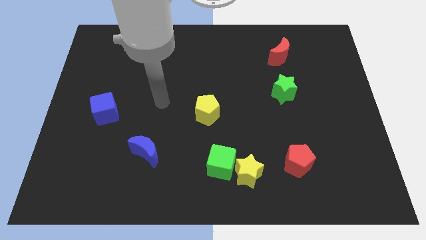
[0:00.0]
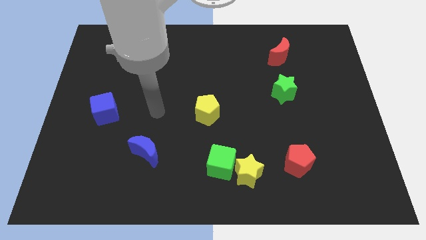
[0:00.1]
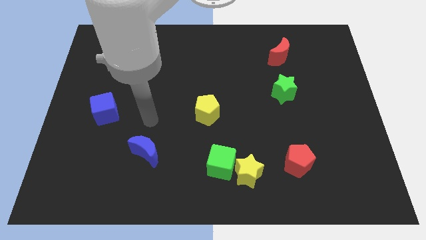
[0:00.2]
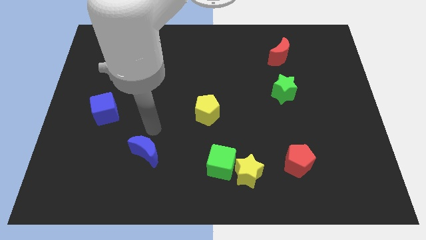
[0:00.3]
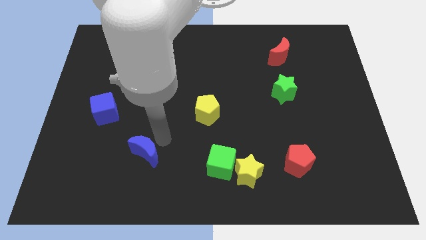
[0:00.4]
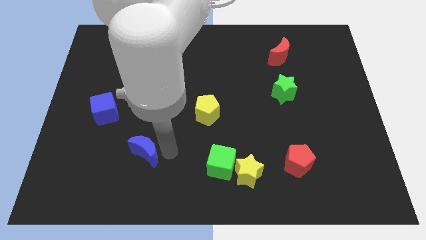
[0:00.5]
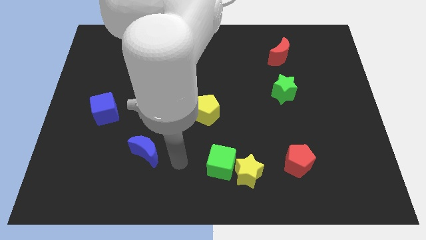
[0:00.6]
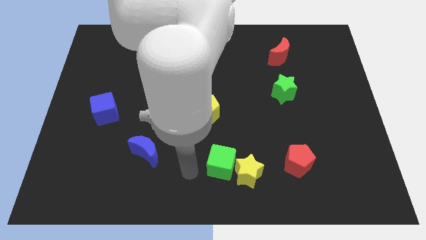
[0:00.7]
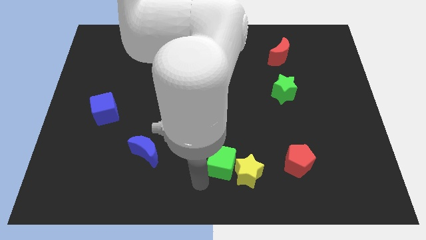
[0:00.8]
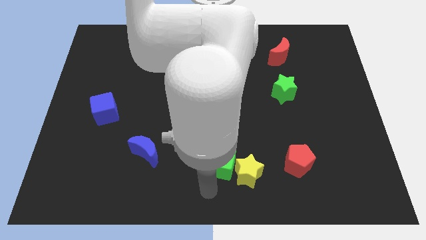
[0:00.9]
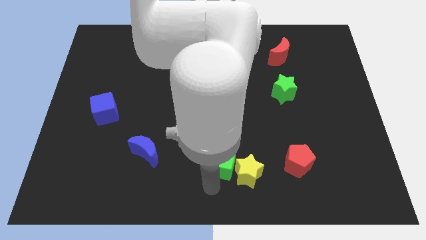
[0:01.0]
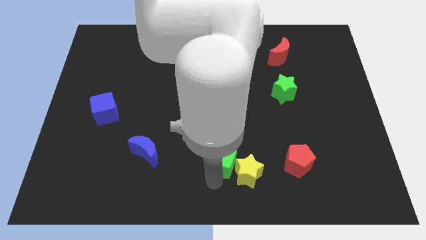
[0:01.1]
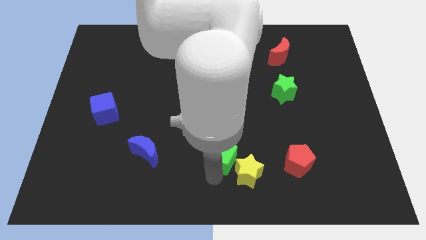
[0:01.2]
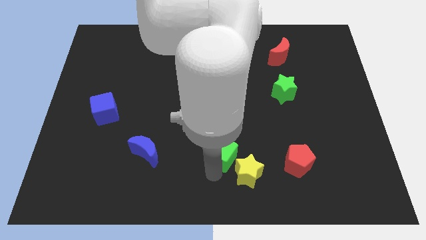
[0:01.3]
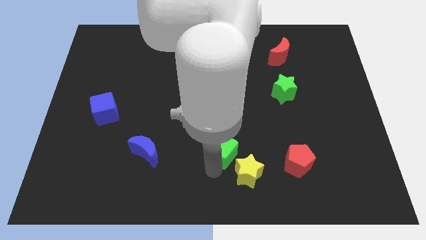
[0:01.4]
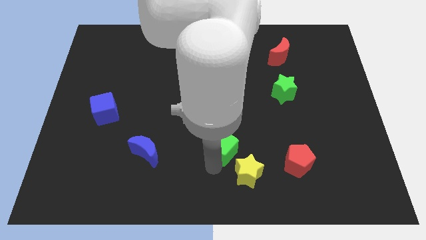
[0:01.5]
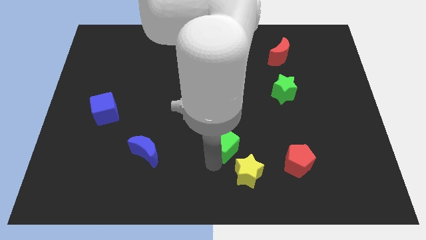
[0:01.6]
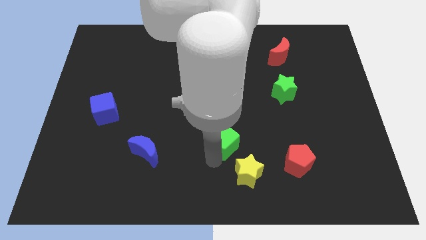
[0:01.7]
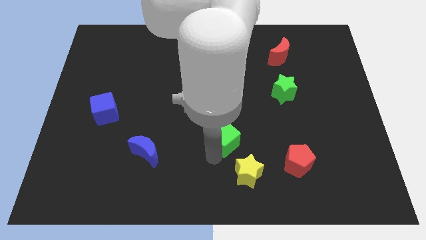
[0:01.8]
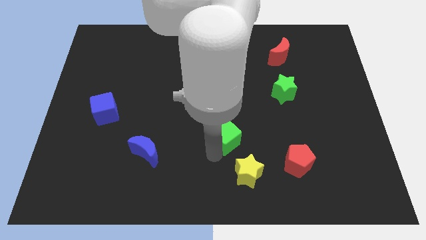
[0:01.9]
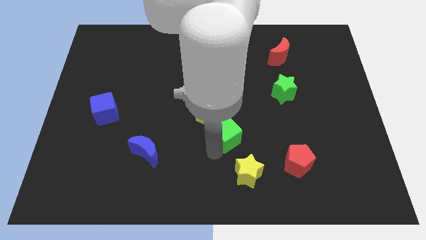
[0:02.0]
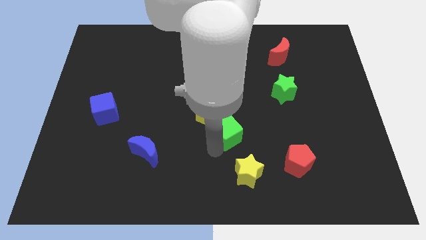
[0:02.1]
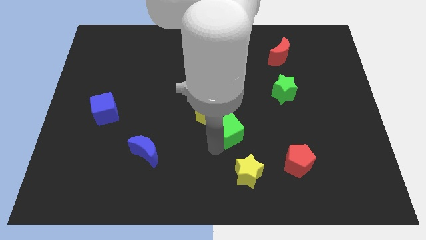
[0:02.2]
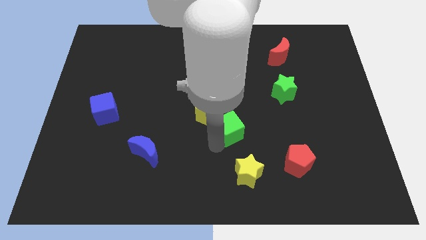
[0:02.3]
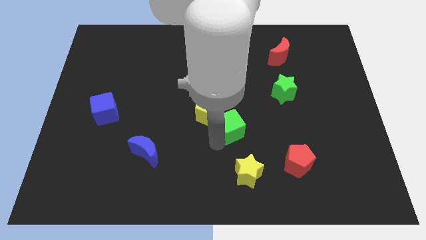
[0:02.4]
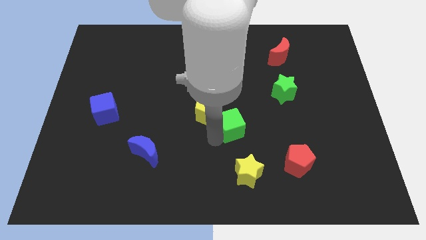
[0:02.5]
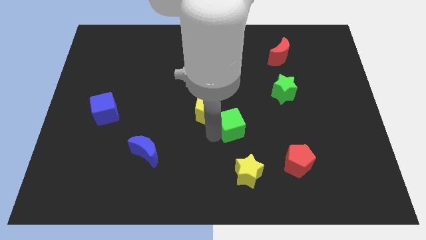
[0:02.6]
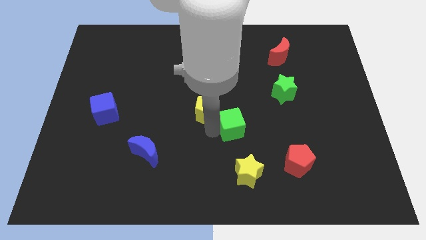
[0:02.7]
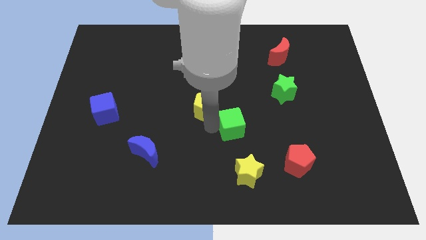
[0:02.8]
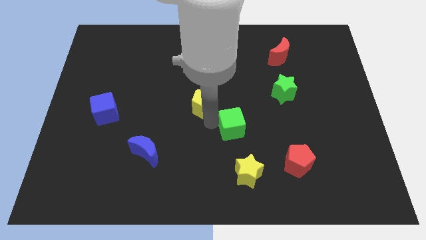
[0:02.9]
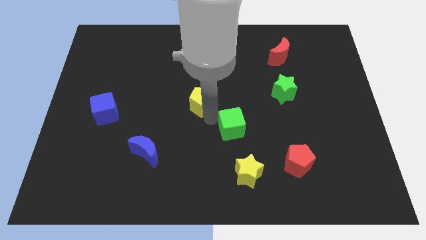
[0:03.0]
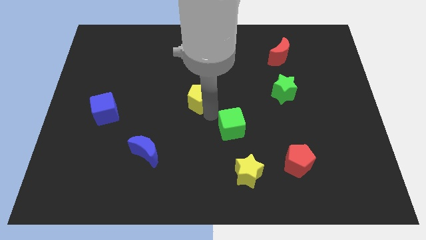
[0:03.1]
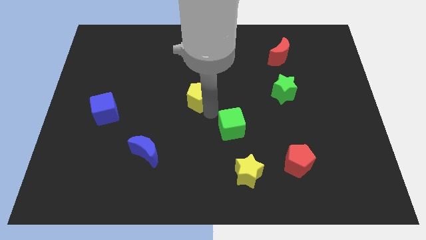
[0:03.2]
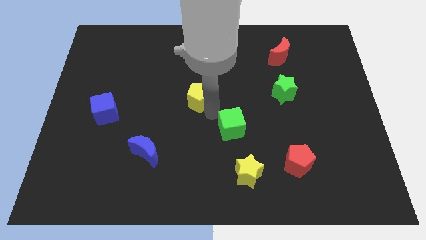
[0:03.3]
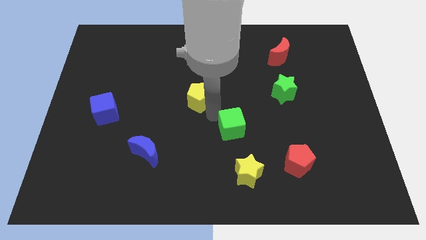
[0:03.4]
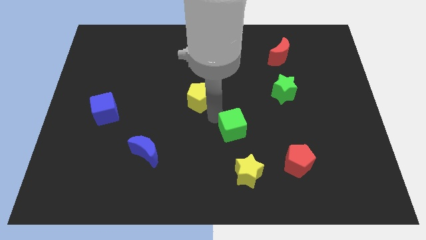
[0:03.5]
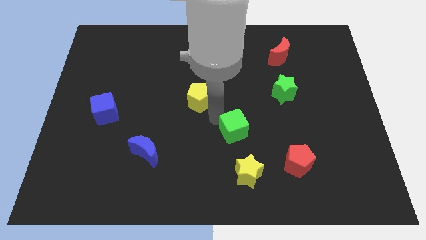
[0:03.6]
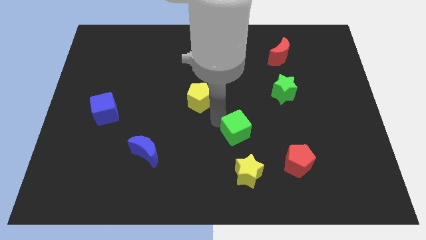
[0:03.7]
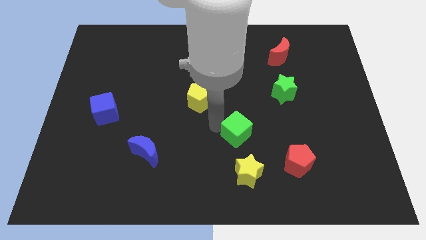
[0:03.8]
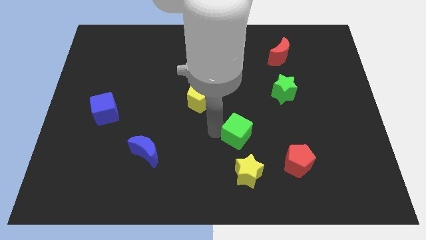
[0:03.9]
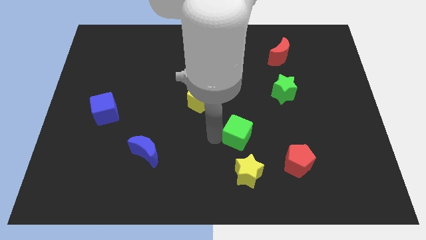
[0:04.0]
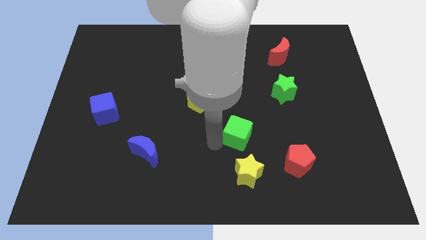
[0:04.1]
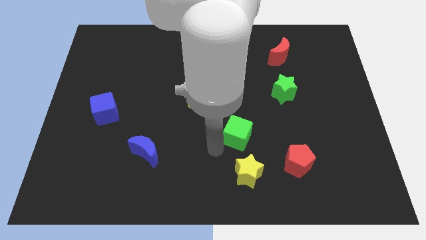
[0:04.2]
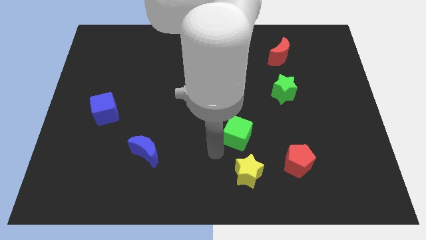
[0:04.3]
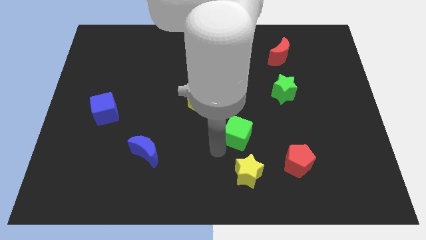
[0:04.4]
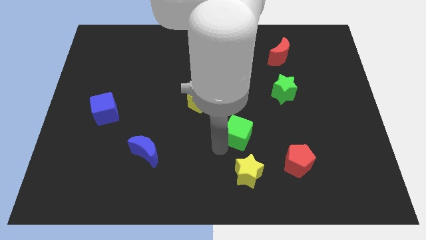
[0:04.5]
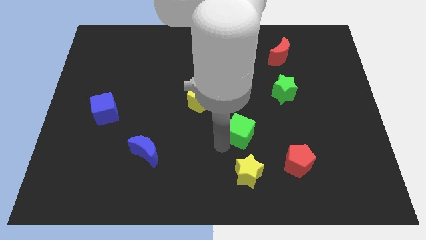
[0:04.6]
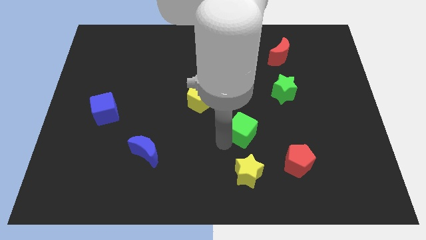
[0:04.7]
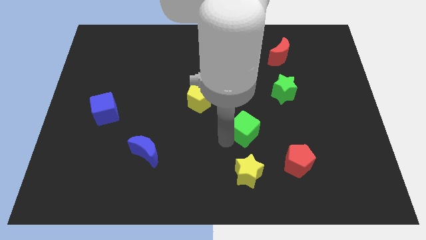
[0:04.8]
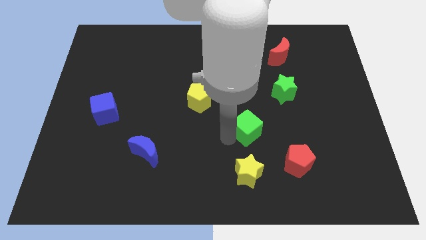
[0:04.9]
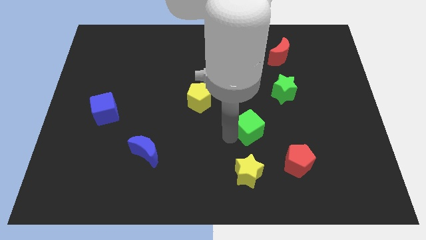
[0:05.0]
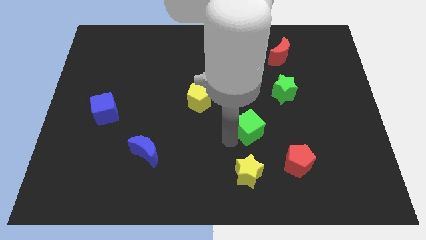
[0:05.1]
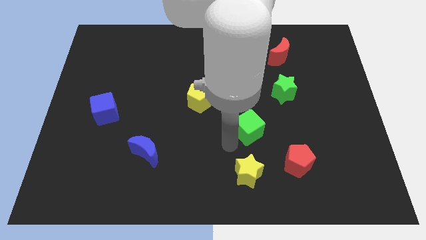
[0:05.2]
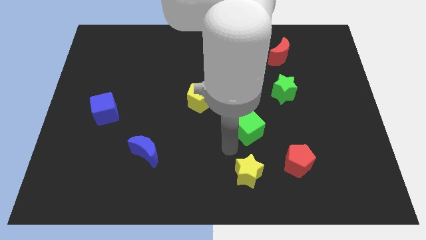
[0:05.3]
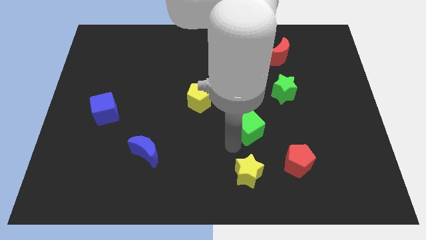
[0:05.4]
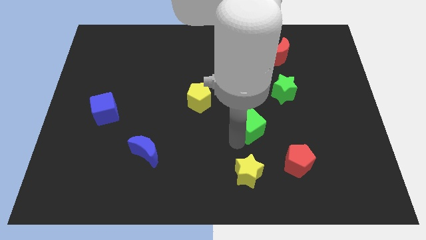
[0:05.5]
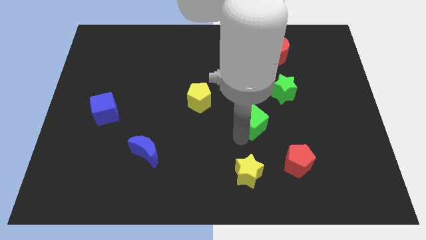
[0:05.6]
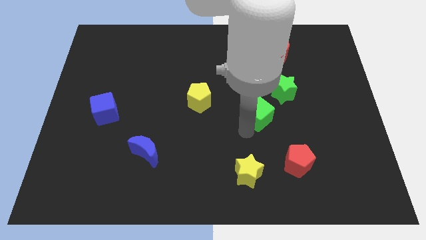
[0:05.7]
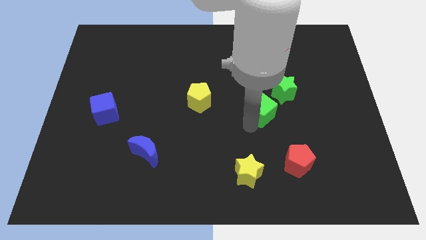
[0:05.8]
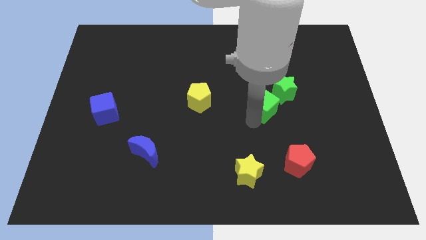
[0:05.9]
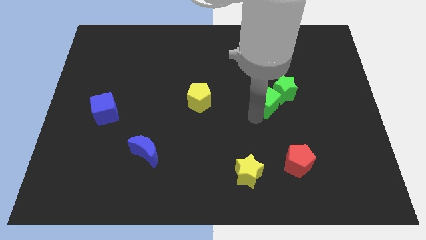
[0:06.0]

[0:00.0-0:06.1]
move the green cube next to the green star

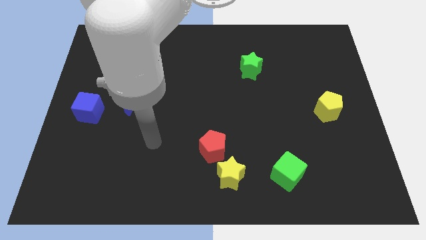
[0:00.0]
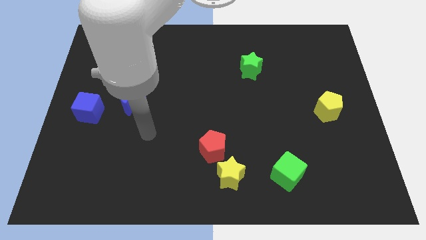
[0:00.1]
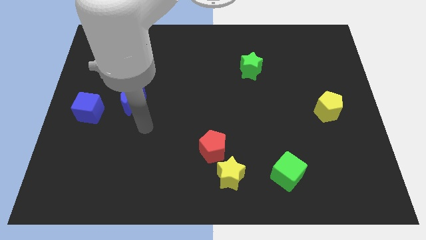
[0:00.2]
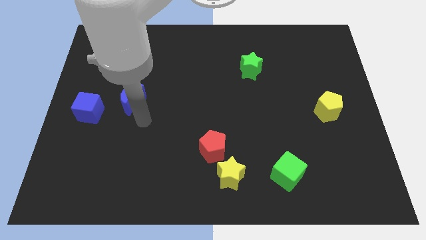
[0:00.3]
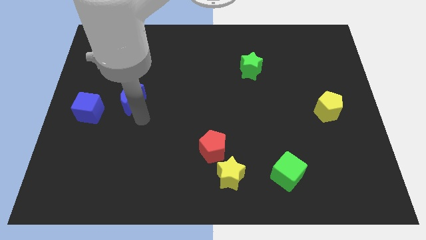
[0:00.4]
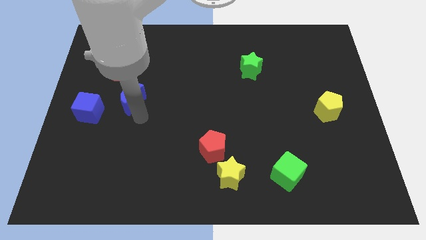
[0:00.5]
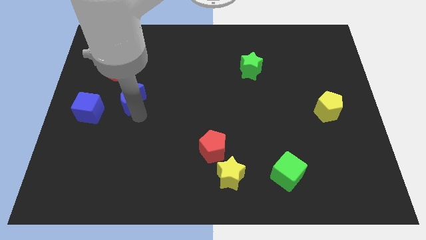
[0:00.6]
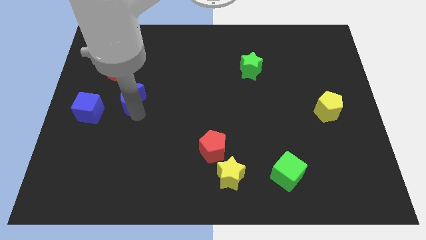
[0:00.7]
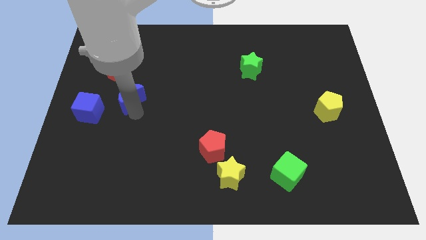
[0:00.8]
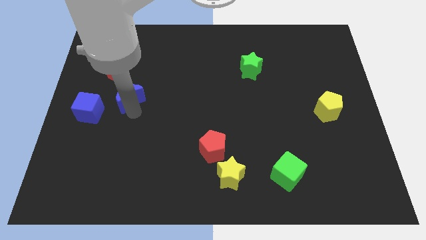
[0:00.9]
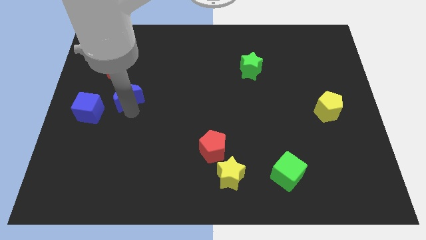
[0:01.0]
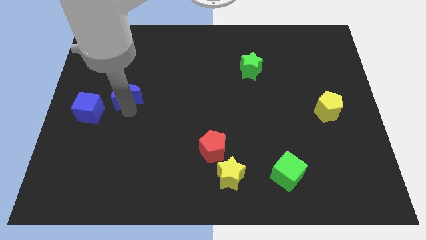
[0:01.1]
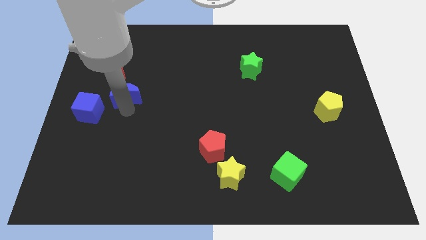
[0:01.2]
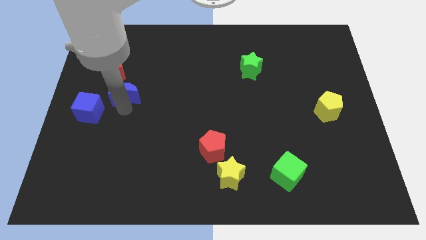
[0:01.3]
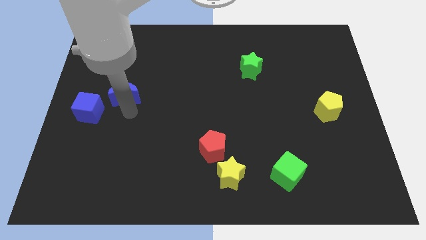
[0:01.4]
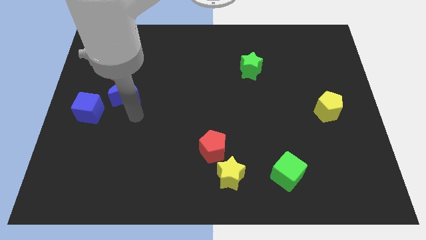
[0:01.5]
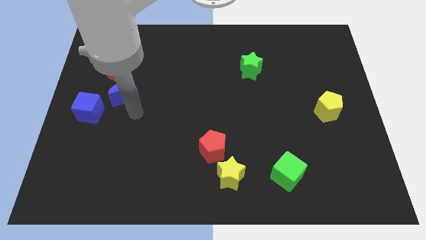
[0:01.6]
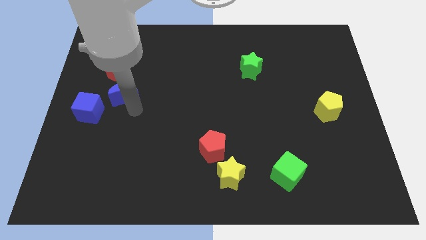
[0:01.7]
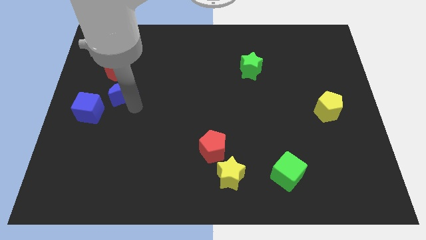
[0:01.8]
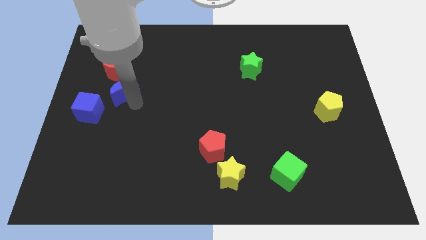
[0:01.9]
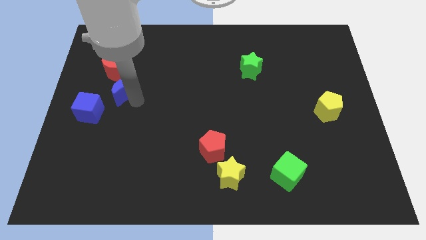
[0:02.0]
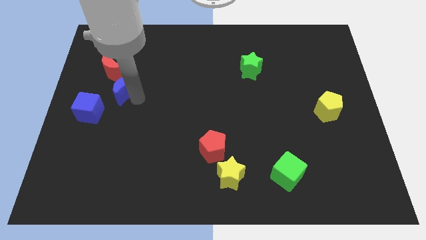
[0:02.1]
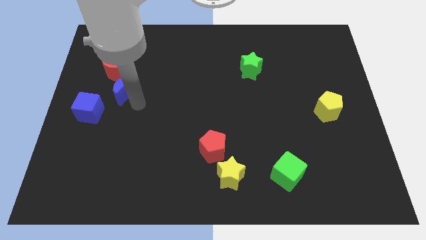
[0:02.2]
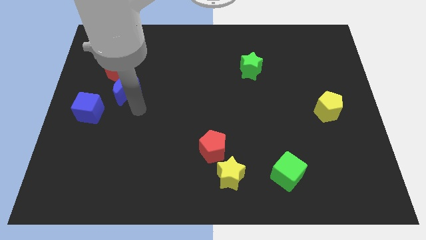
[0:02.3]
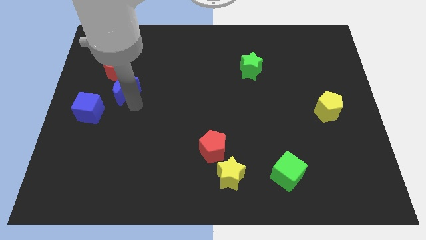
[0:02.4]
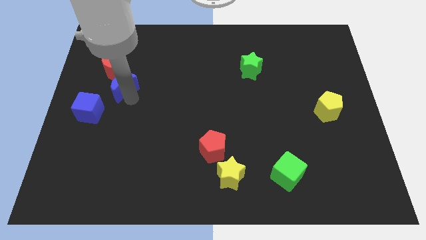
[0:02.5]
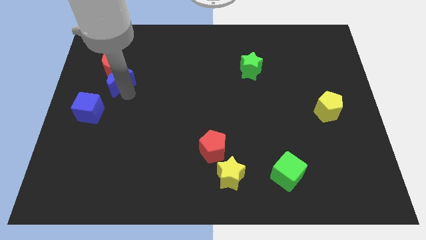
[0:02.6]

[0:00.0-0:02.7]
push the blue moon towards the red moon
